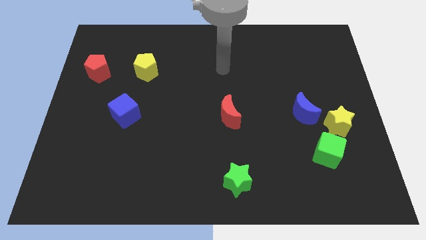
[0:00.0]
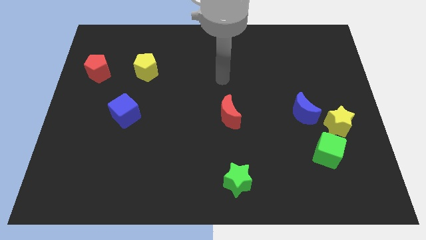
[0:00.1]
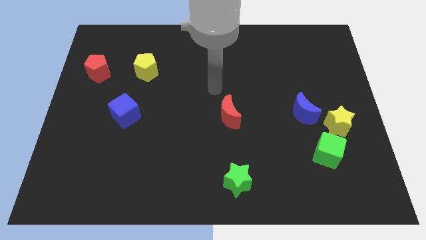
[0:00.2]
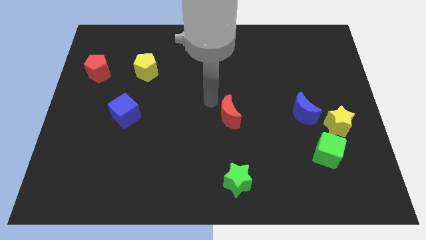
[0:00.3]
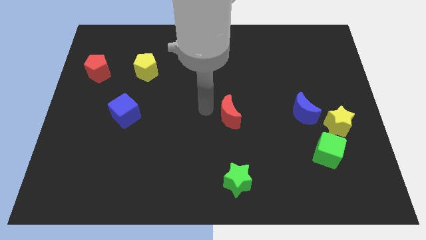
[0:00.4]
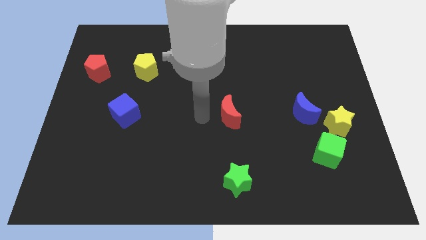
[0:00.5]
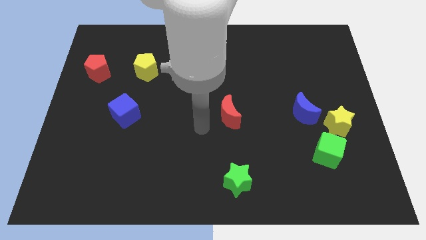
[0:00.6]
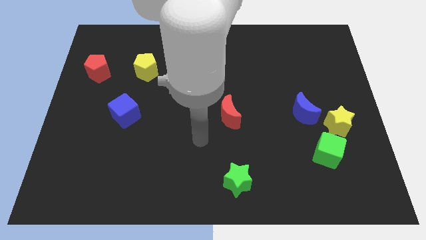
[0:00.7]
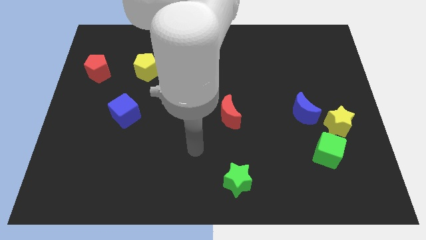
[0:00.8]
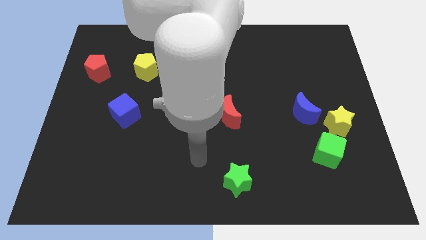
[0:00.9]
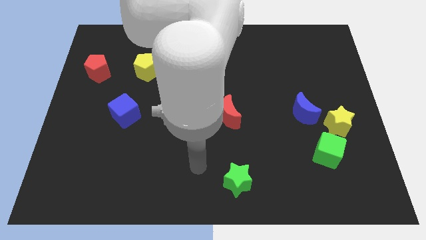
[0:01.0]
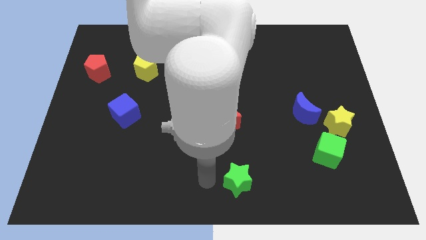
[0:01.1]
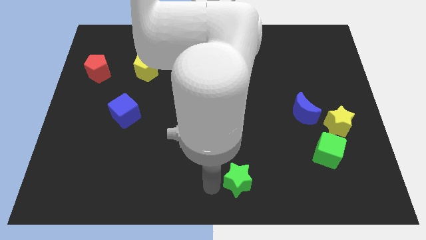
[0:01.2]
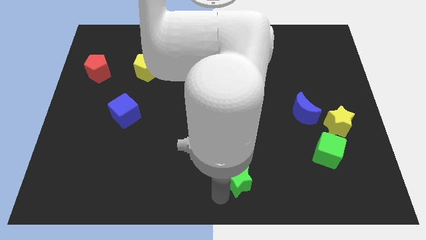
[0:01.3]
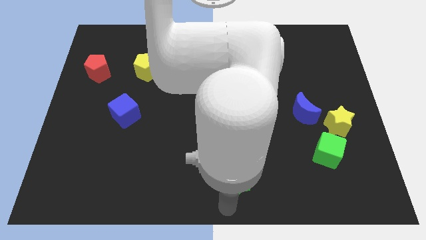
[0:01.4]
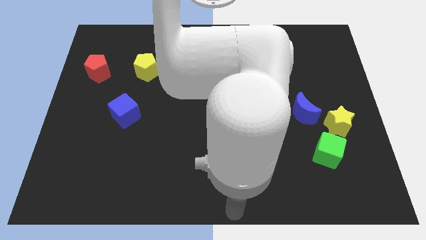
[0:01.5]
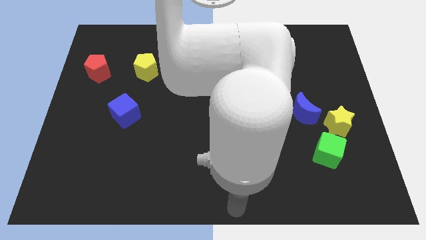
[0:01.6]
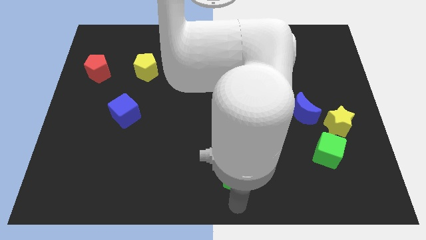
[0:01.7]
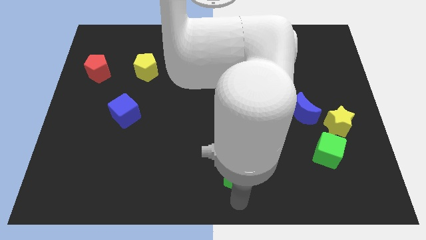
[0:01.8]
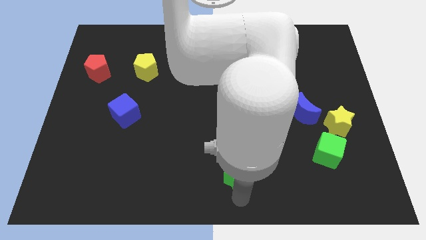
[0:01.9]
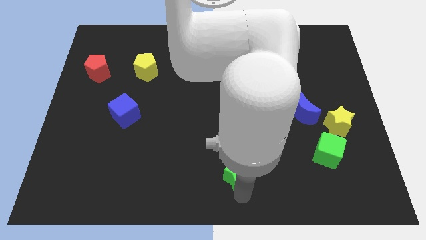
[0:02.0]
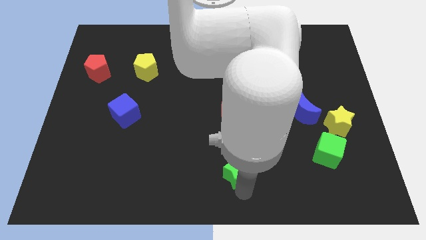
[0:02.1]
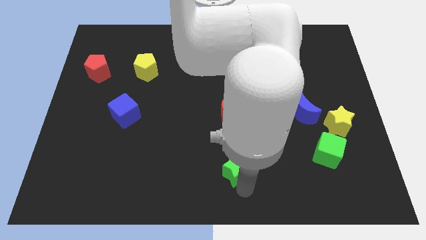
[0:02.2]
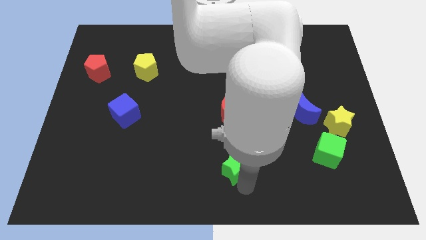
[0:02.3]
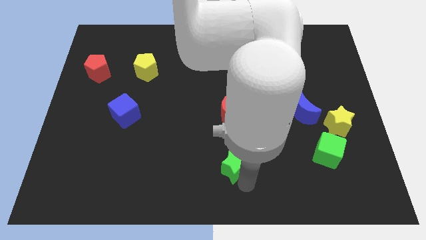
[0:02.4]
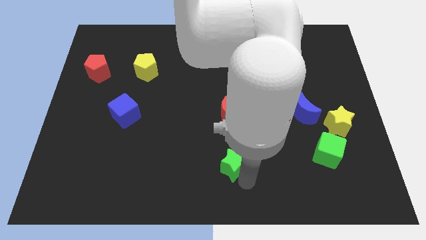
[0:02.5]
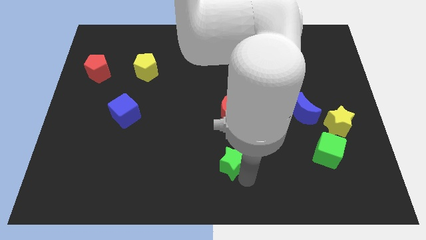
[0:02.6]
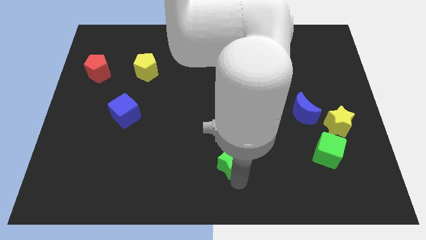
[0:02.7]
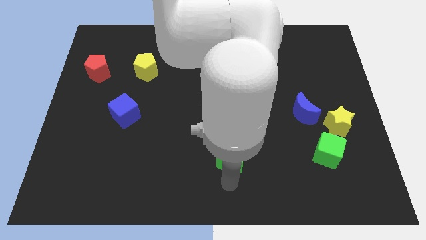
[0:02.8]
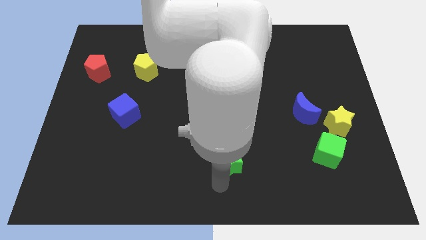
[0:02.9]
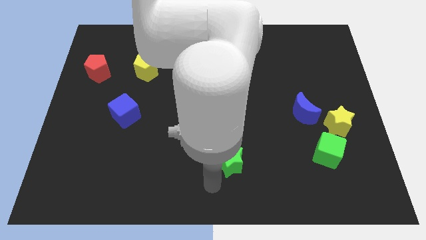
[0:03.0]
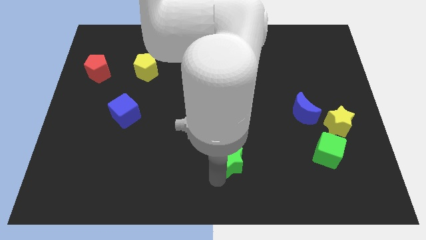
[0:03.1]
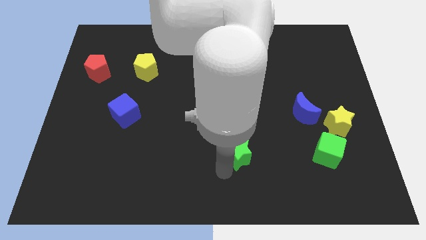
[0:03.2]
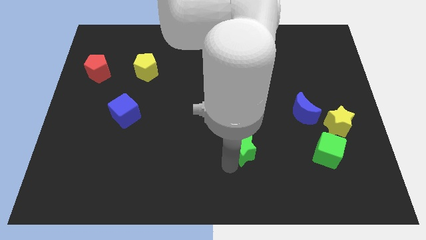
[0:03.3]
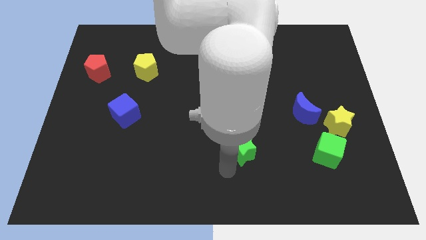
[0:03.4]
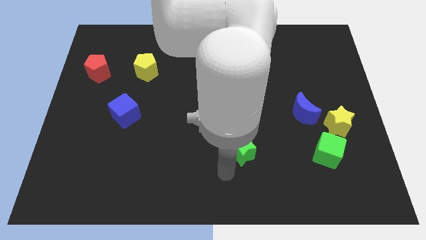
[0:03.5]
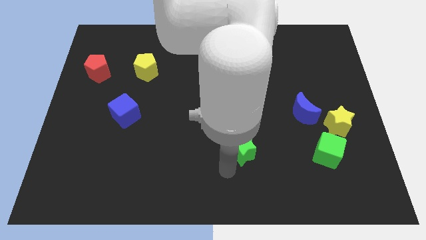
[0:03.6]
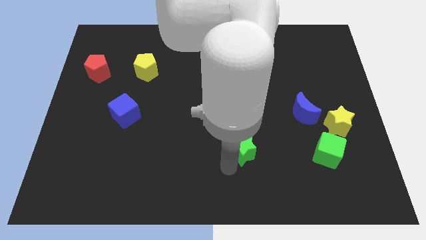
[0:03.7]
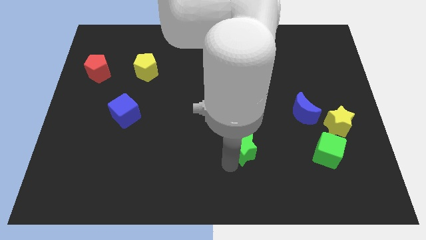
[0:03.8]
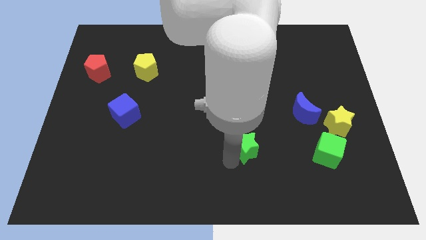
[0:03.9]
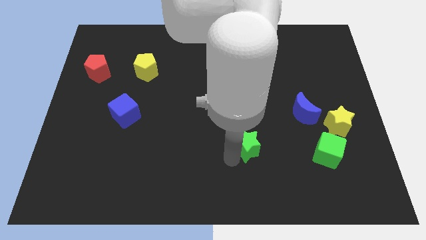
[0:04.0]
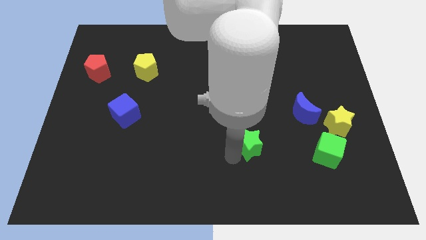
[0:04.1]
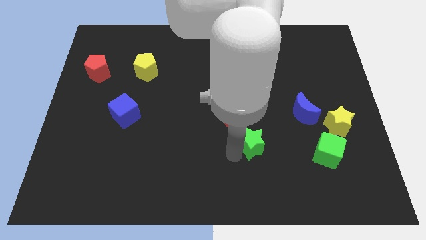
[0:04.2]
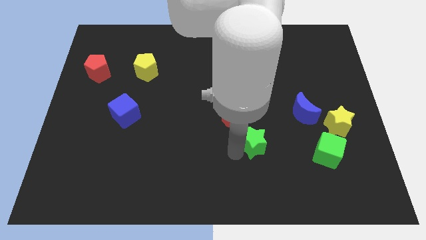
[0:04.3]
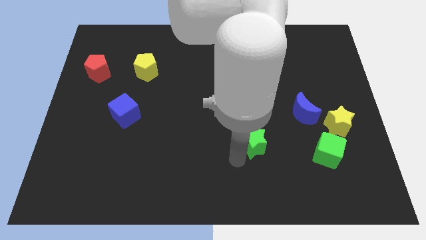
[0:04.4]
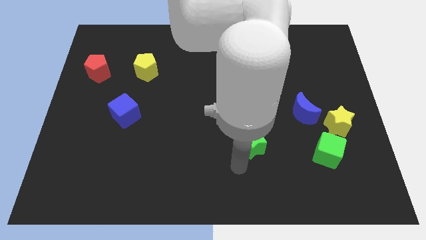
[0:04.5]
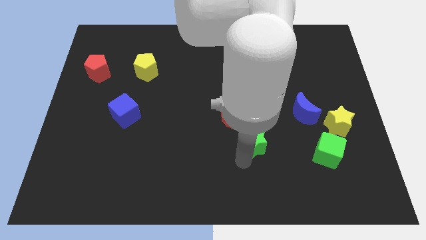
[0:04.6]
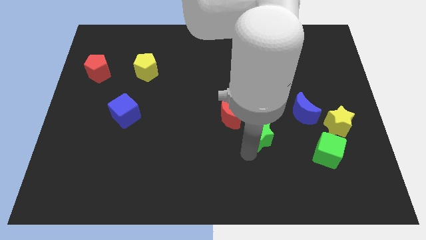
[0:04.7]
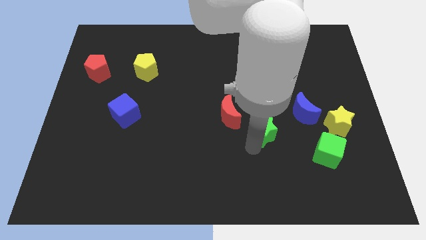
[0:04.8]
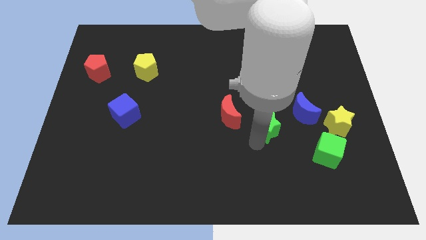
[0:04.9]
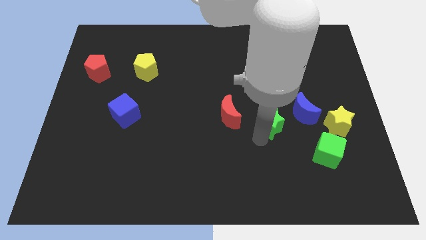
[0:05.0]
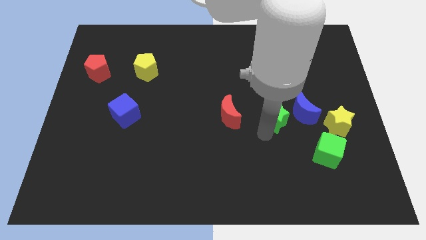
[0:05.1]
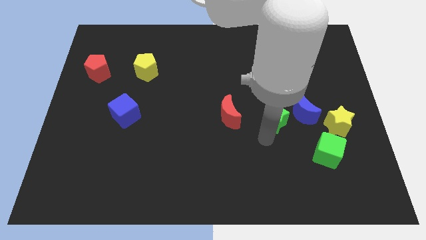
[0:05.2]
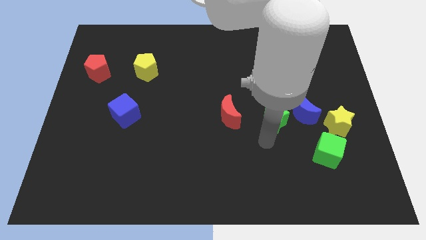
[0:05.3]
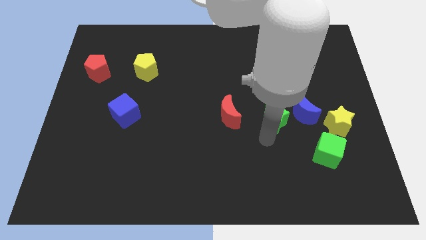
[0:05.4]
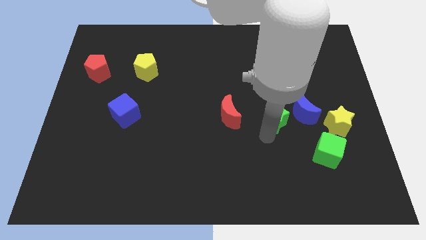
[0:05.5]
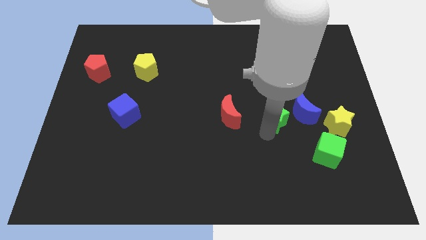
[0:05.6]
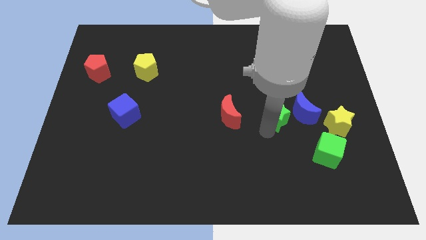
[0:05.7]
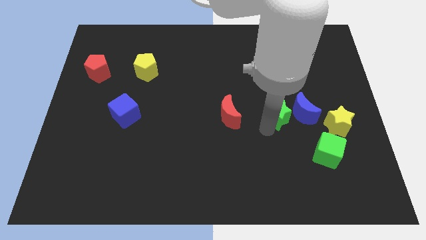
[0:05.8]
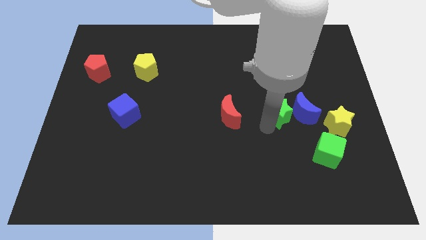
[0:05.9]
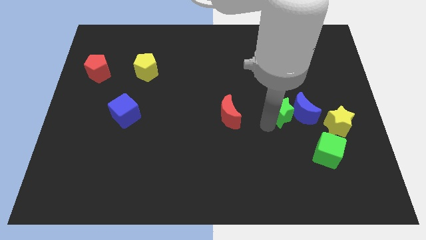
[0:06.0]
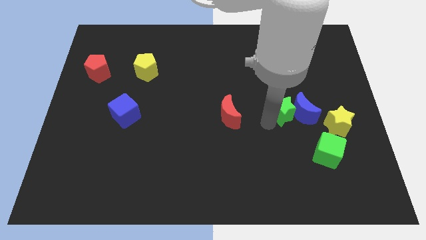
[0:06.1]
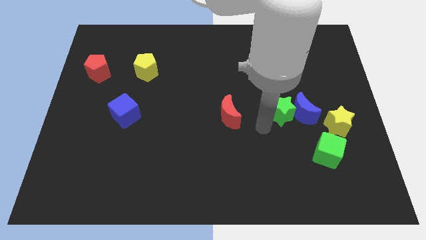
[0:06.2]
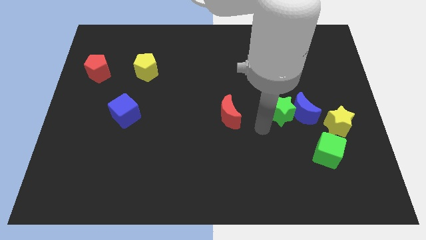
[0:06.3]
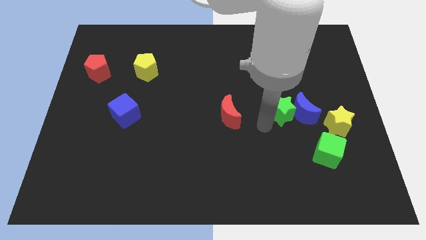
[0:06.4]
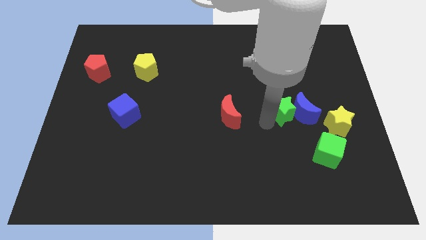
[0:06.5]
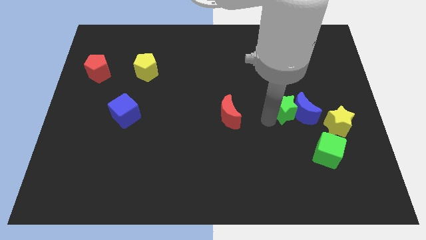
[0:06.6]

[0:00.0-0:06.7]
move the green star upwards and then to the right

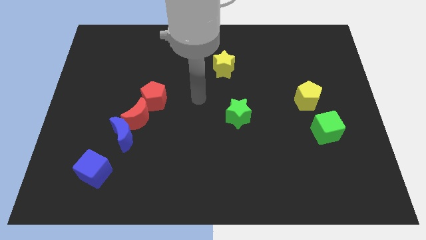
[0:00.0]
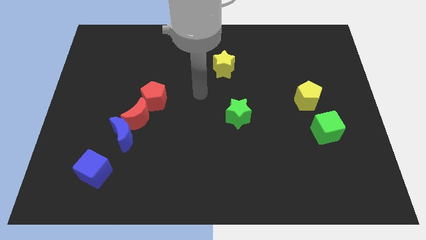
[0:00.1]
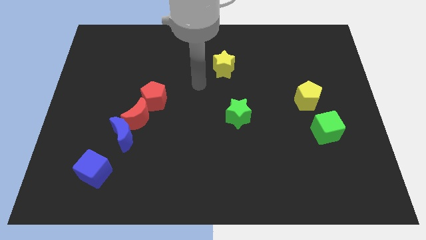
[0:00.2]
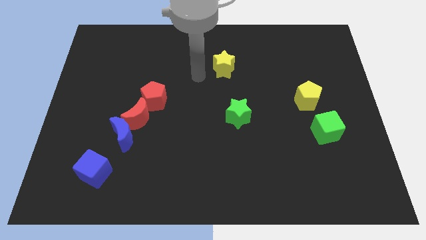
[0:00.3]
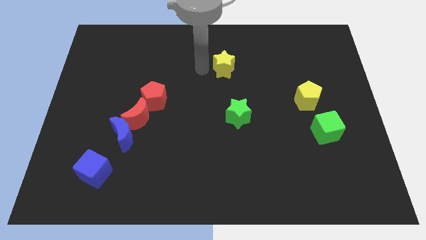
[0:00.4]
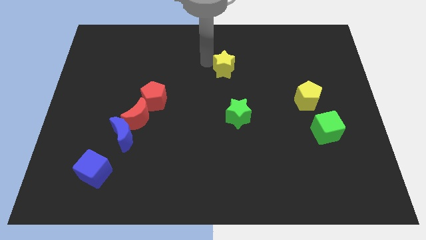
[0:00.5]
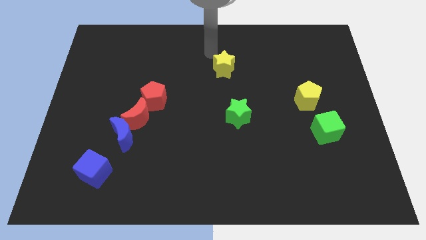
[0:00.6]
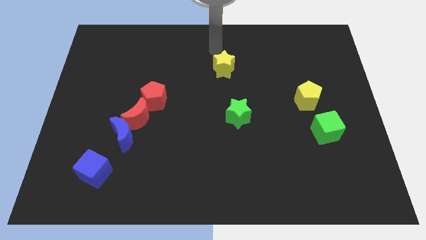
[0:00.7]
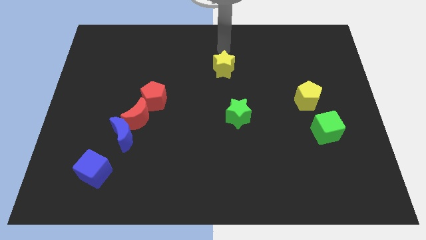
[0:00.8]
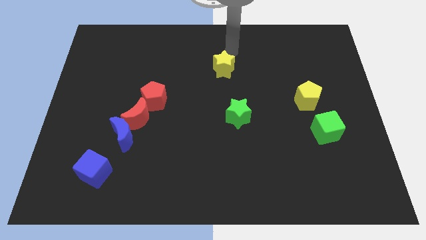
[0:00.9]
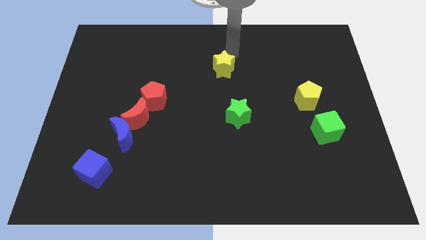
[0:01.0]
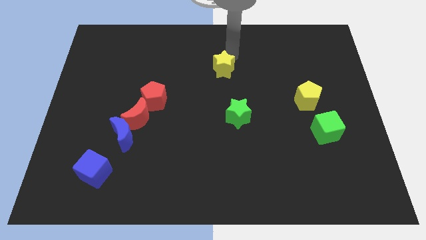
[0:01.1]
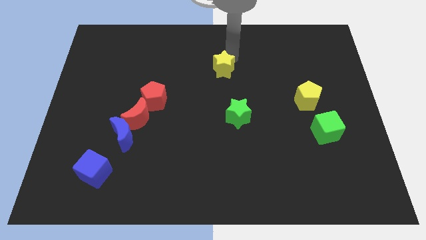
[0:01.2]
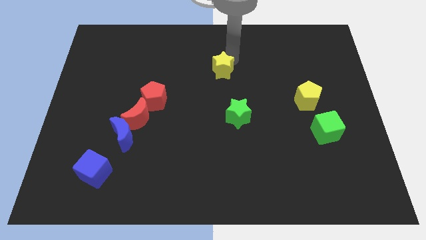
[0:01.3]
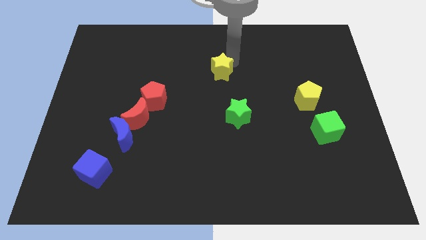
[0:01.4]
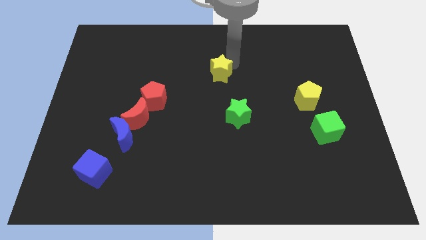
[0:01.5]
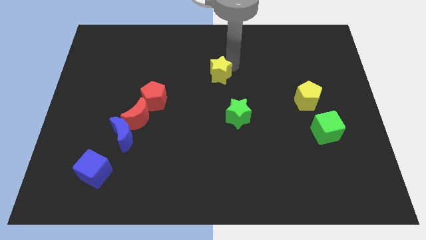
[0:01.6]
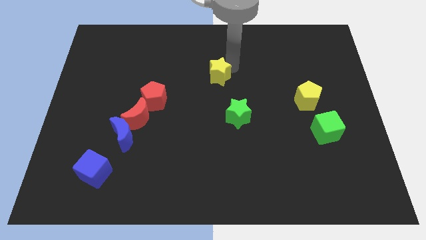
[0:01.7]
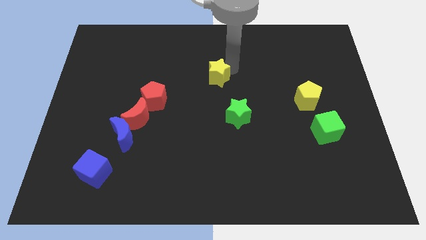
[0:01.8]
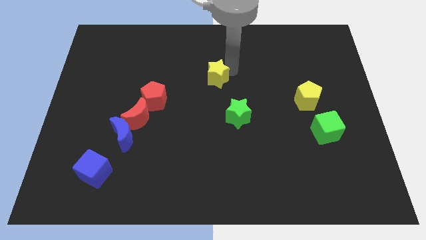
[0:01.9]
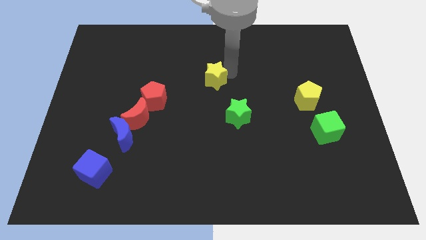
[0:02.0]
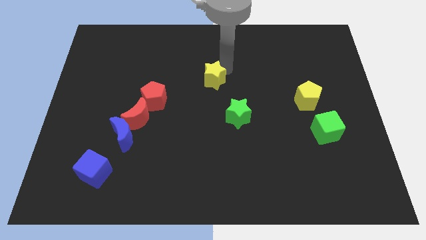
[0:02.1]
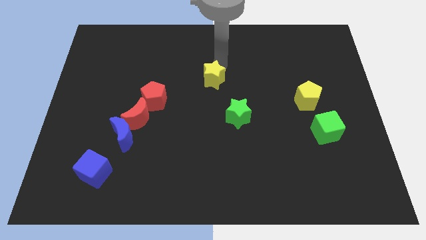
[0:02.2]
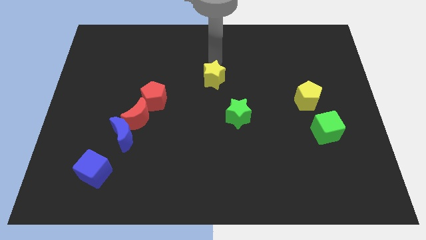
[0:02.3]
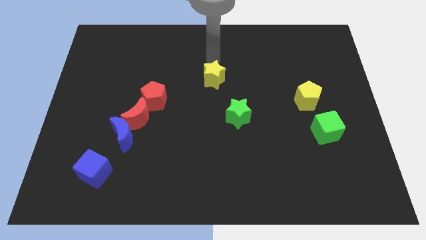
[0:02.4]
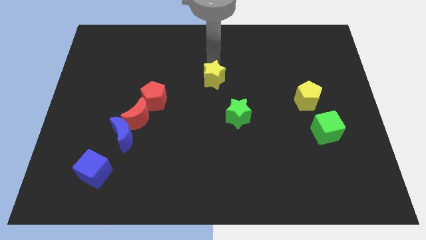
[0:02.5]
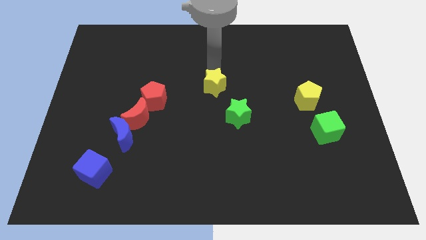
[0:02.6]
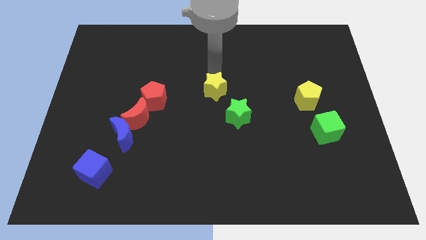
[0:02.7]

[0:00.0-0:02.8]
push the yellow star down a little
